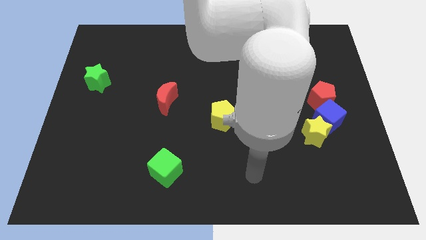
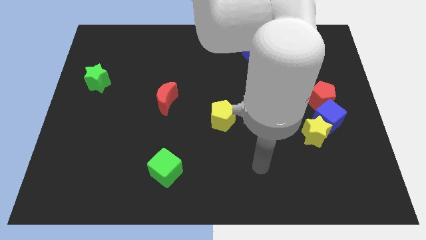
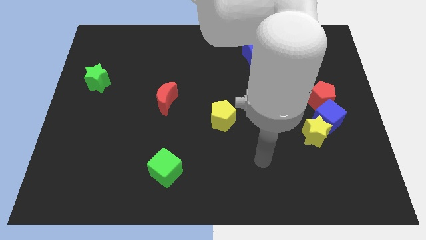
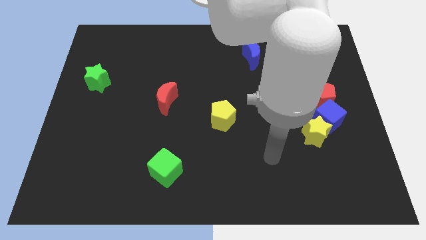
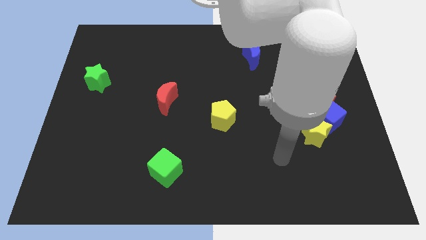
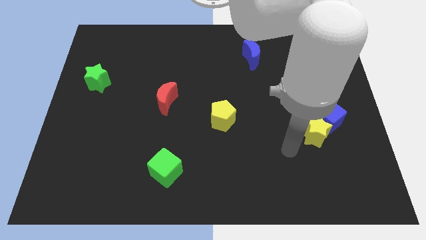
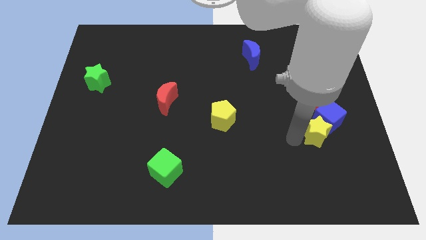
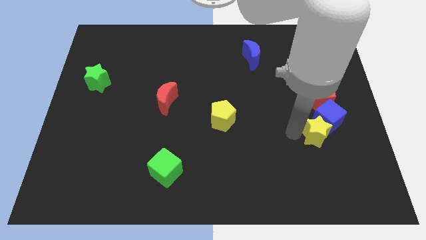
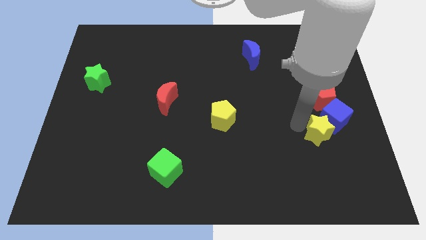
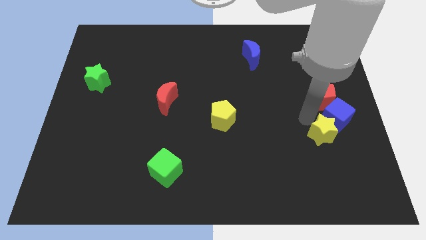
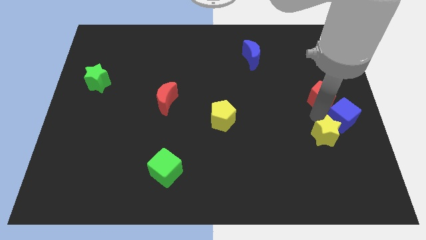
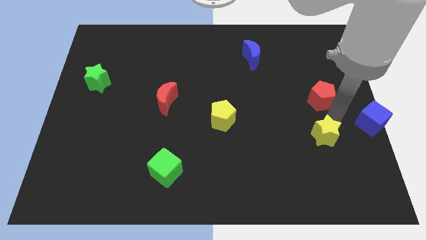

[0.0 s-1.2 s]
move the yellow star away from the blue cube

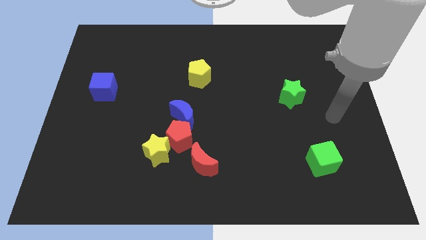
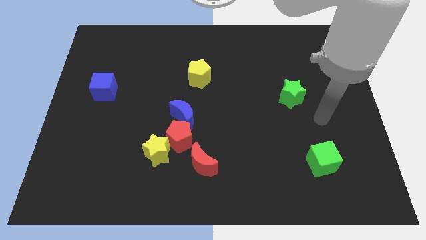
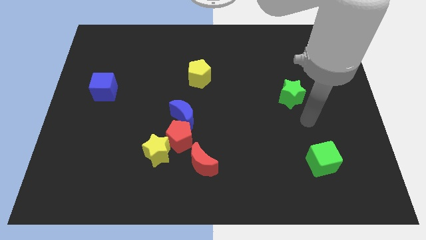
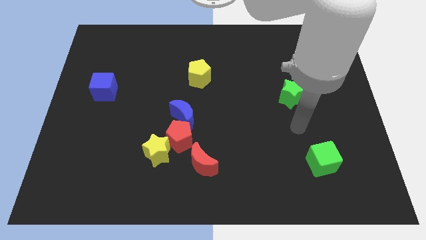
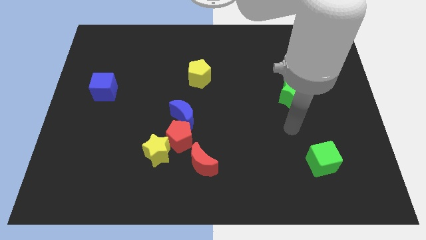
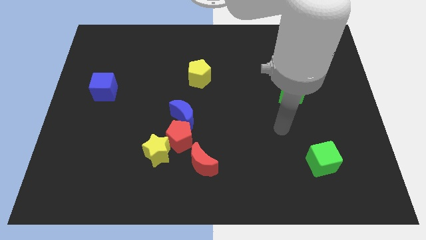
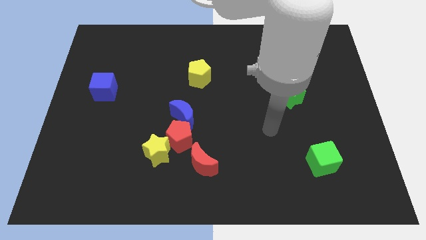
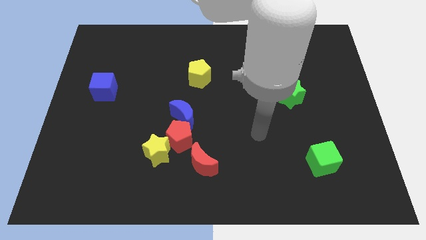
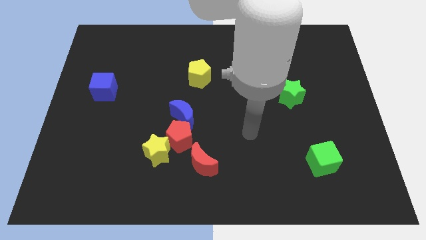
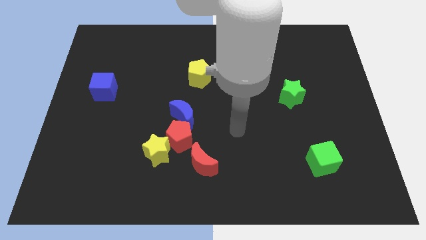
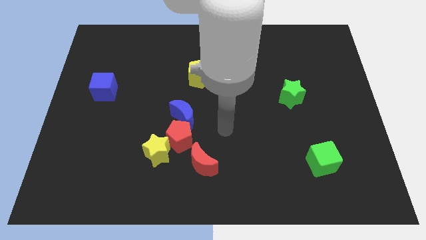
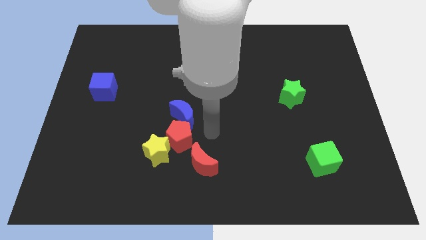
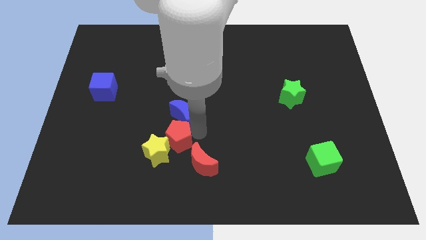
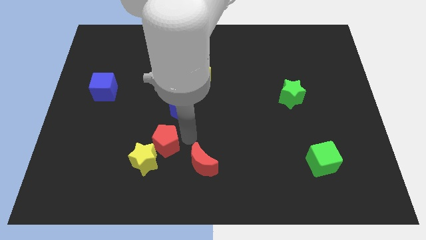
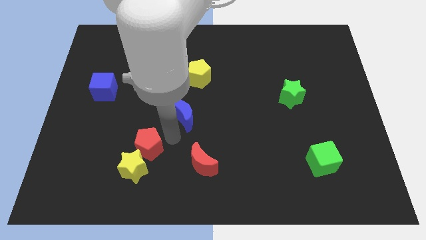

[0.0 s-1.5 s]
move the blue moon away from the red pentagon

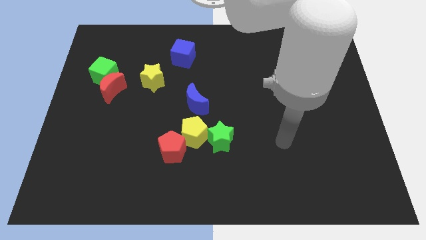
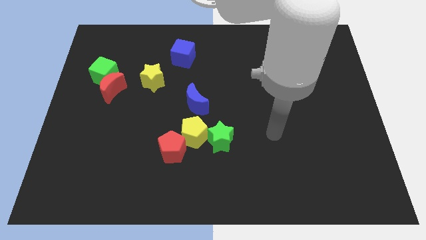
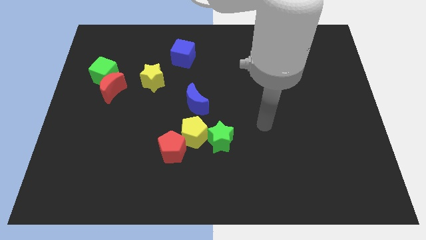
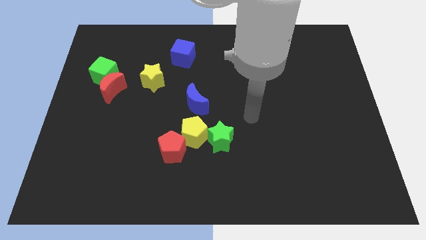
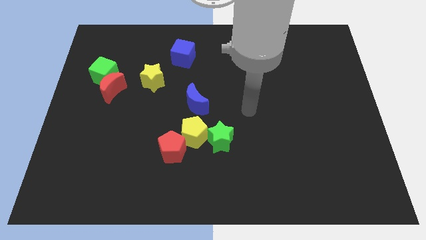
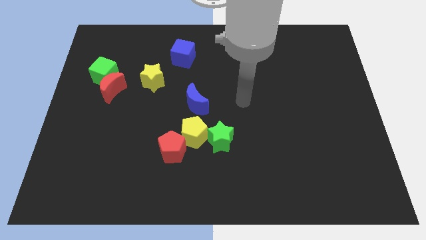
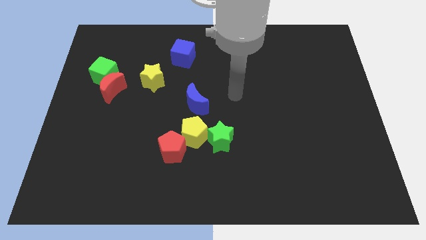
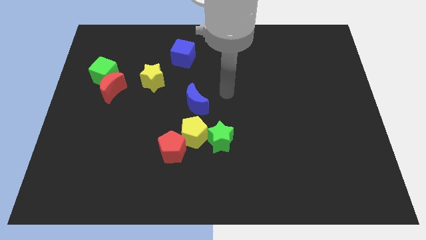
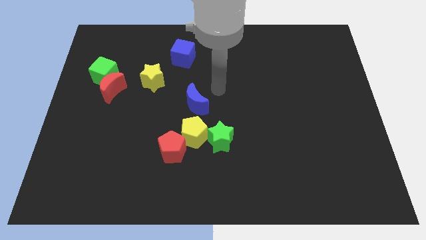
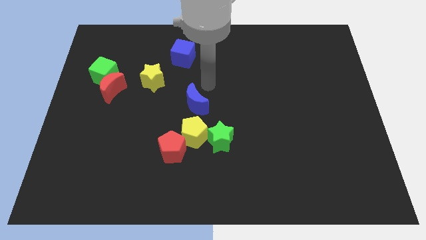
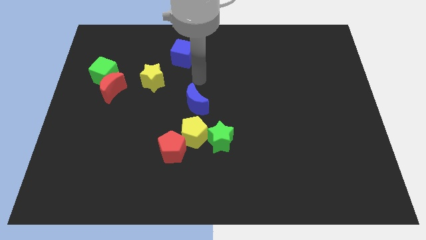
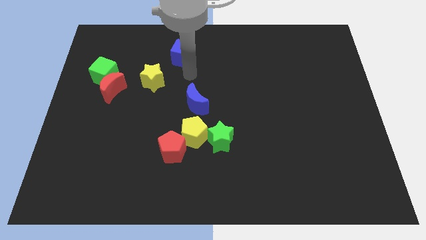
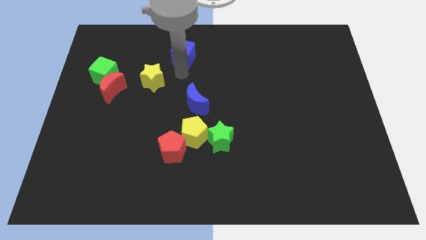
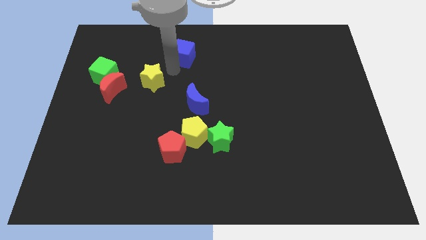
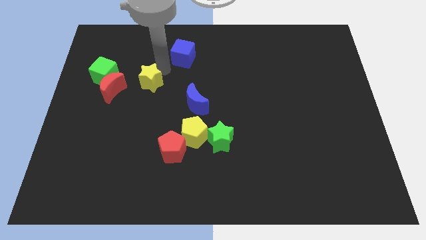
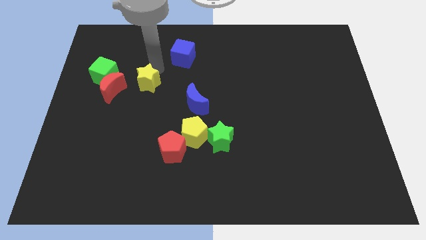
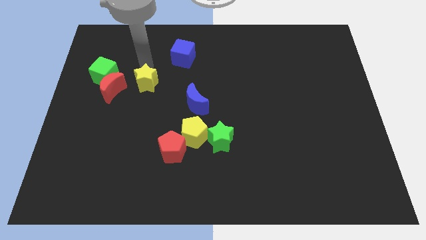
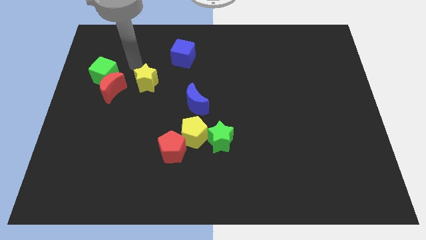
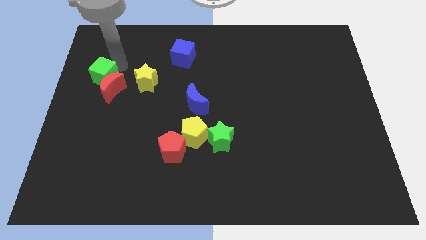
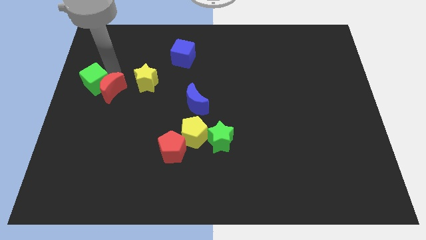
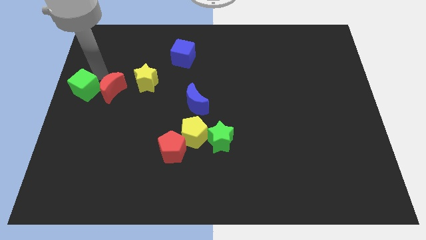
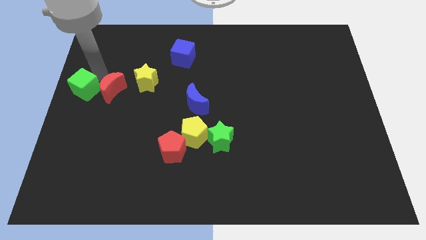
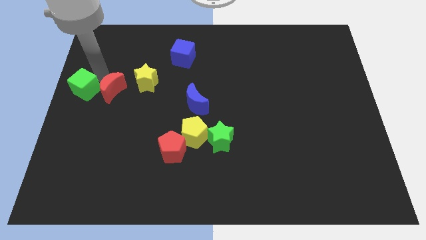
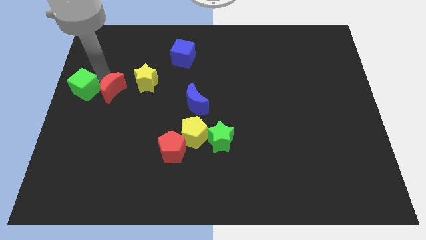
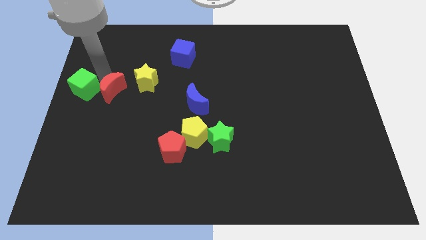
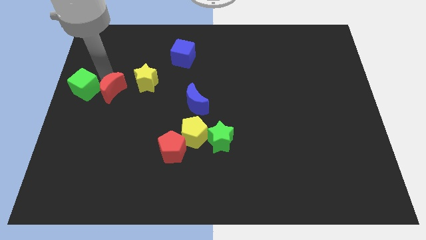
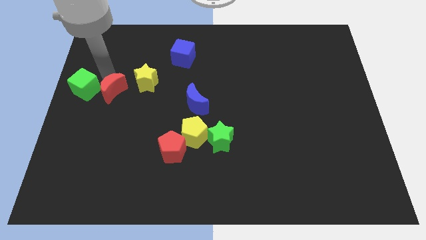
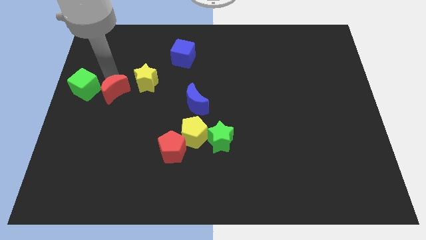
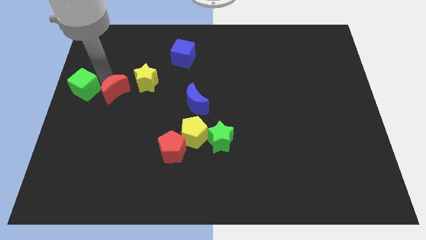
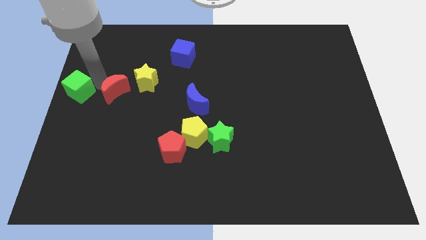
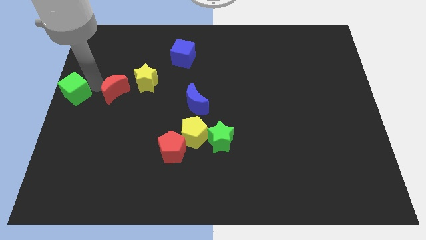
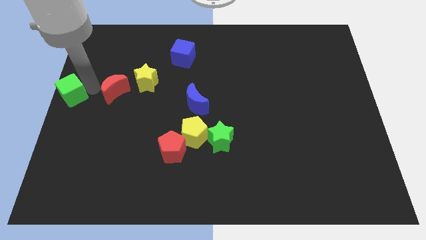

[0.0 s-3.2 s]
pull the red moon apart from the green cube

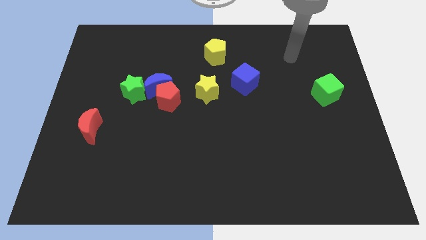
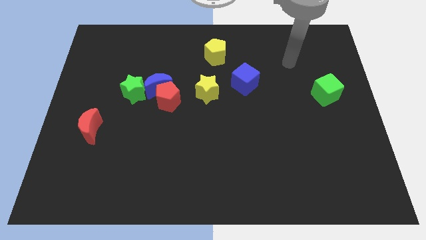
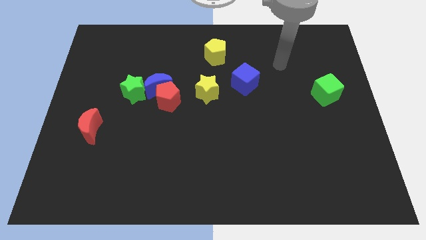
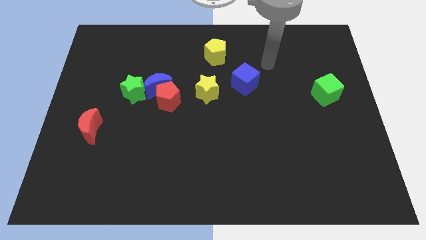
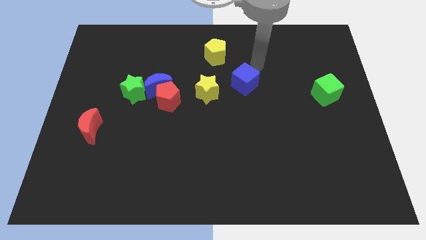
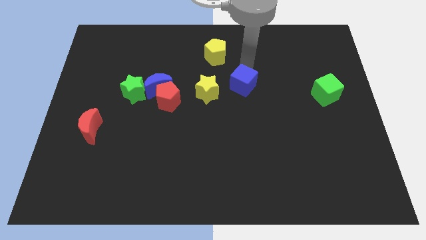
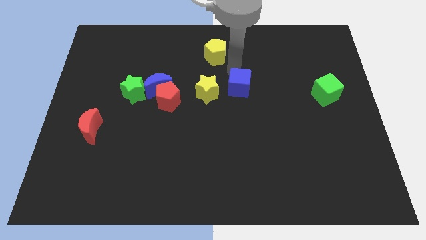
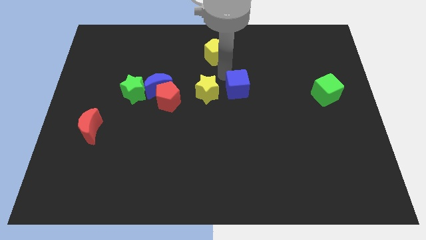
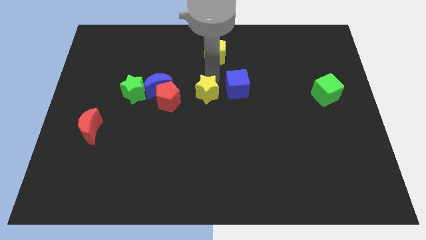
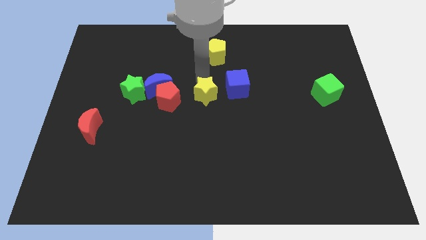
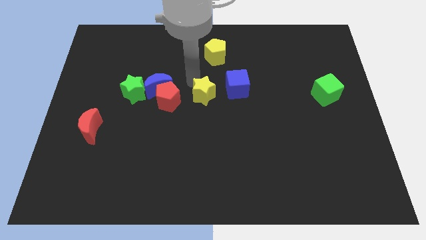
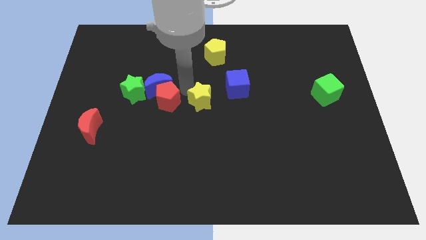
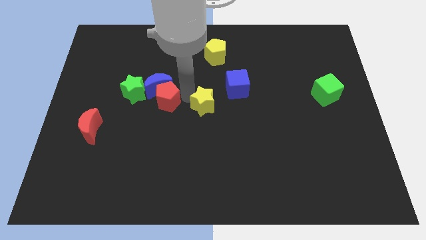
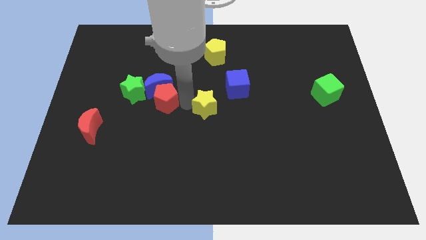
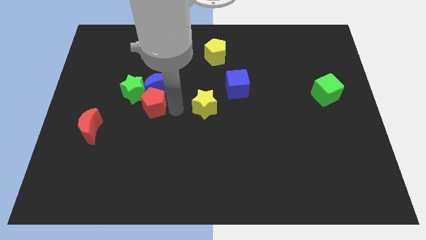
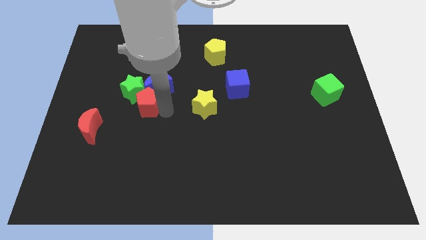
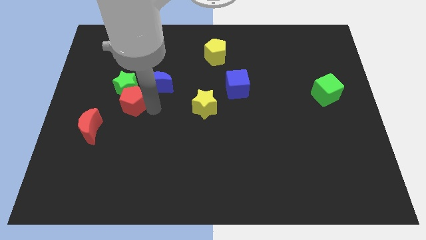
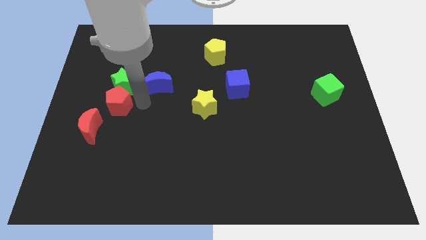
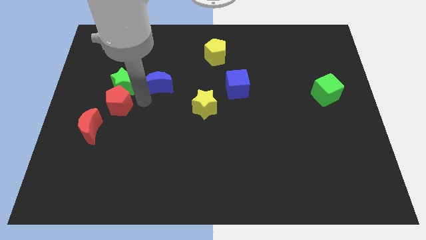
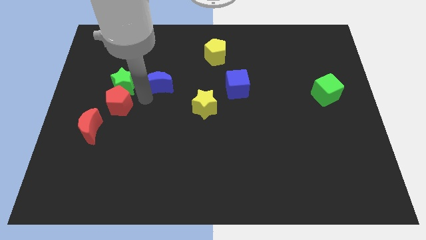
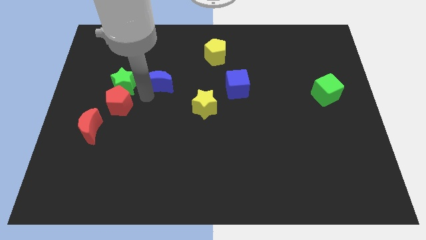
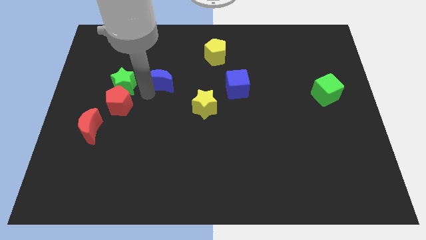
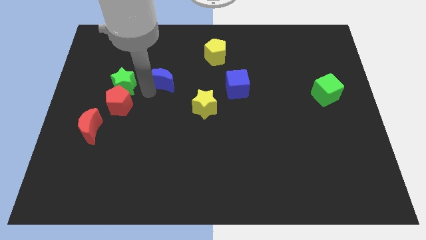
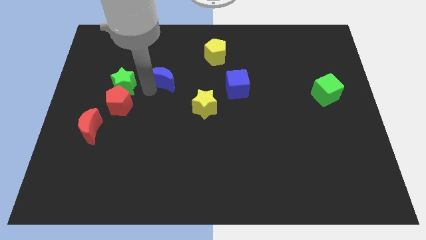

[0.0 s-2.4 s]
pull the blue moon apart from the red pentagon and green star

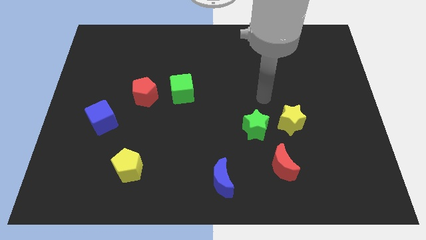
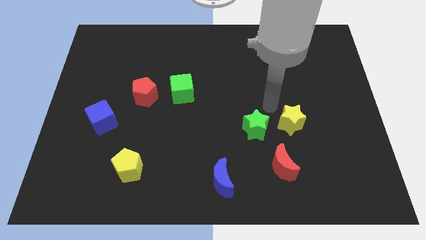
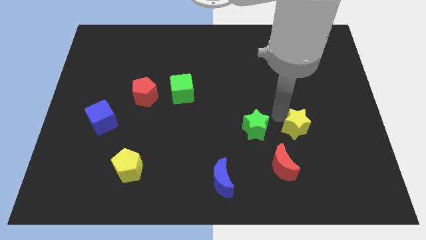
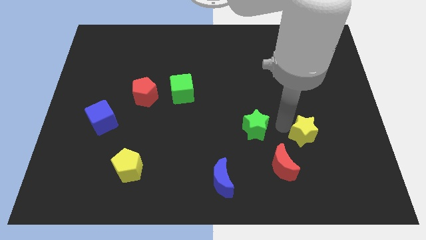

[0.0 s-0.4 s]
pull the green star apart from the yellow star

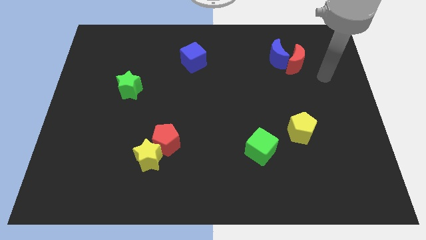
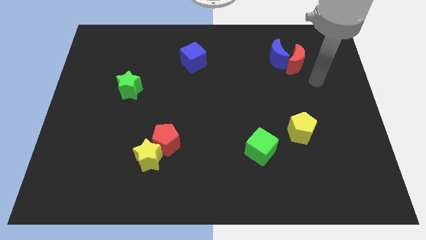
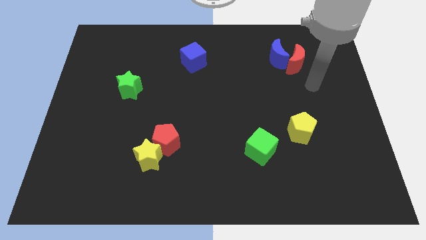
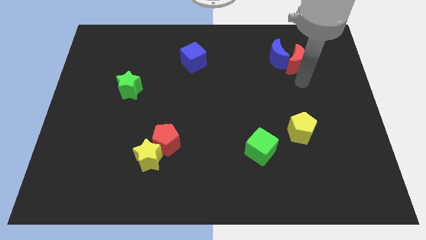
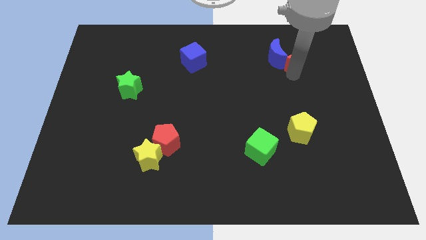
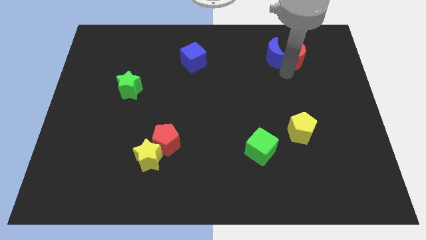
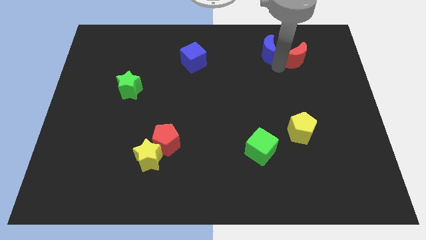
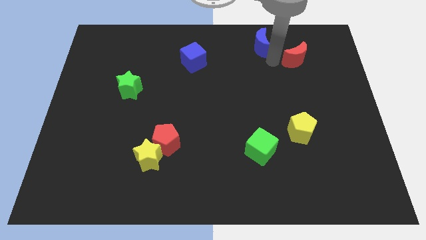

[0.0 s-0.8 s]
move the red moon away from the blue moon
